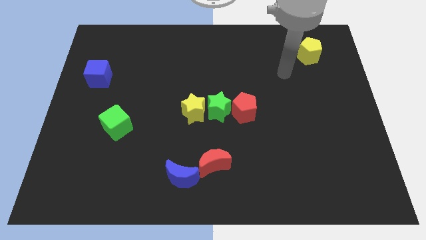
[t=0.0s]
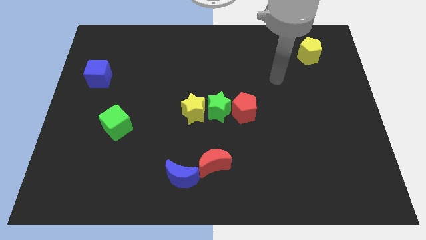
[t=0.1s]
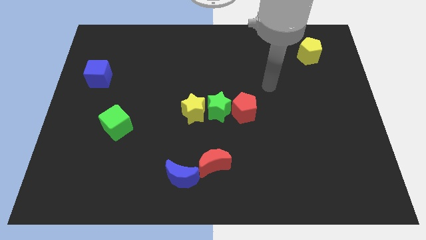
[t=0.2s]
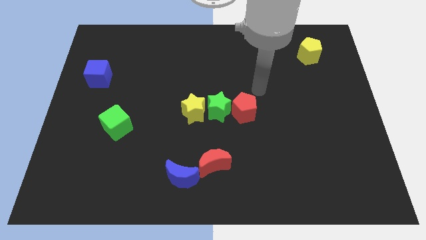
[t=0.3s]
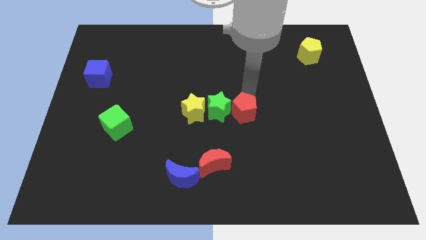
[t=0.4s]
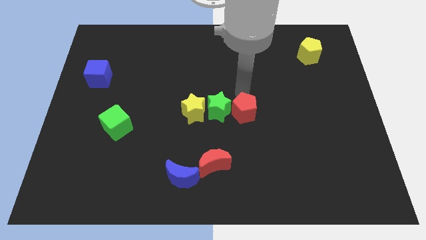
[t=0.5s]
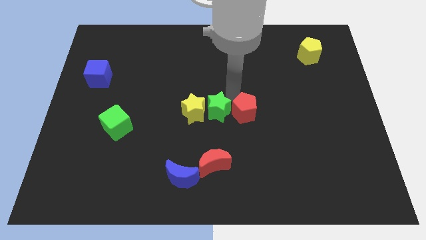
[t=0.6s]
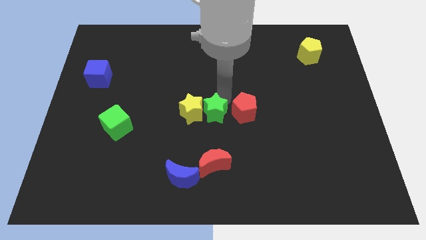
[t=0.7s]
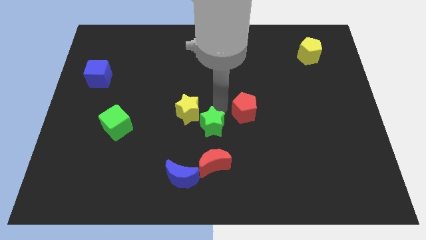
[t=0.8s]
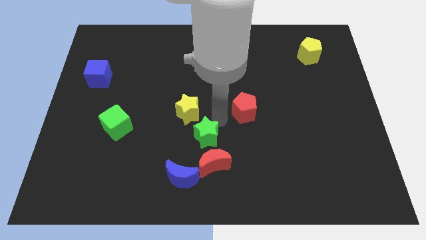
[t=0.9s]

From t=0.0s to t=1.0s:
move the red pentagon away from the green star

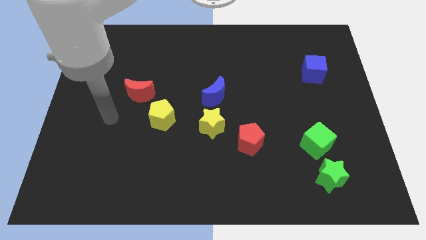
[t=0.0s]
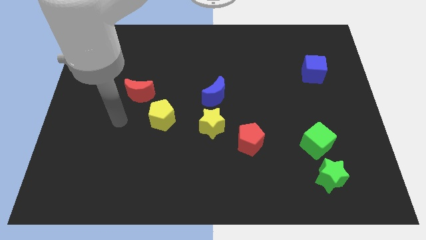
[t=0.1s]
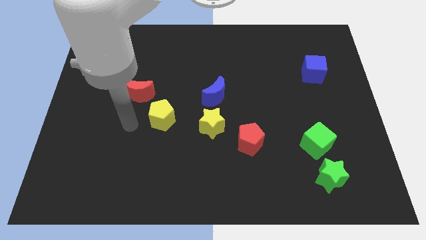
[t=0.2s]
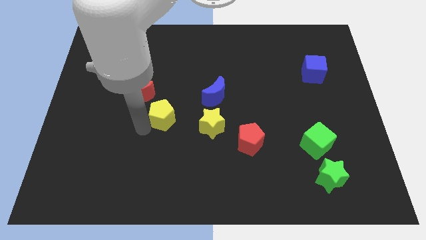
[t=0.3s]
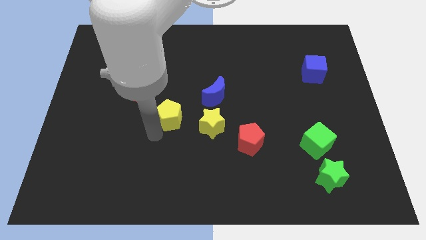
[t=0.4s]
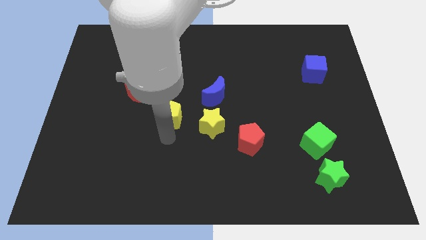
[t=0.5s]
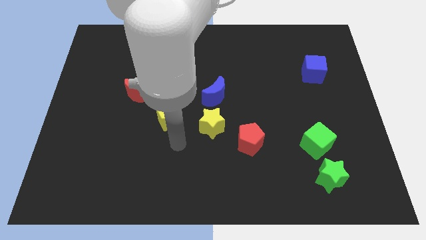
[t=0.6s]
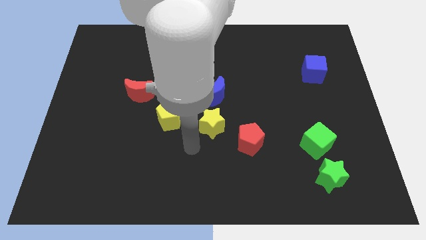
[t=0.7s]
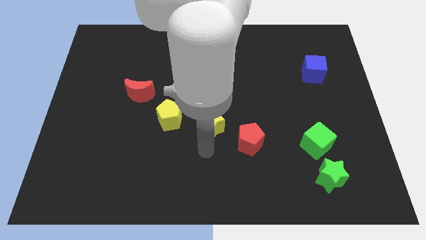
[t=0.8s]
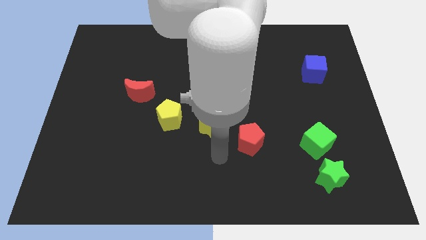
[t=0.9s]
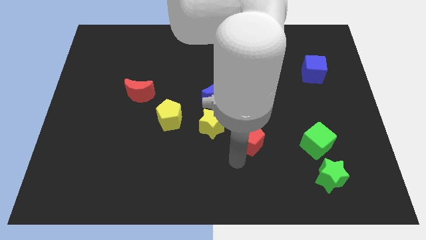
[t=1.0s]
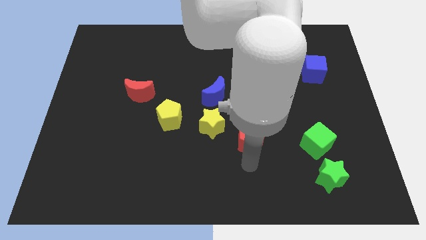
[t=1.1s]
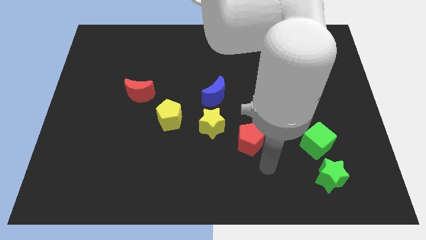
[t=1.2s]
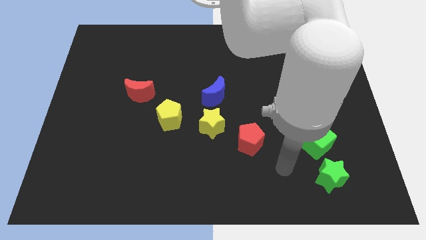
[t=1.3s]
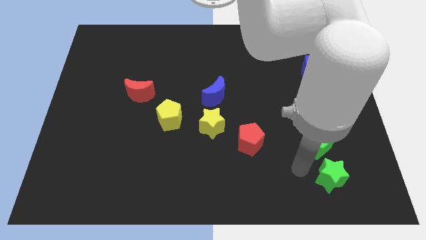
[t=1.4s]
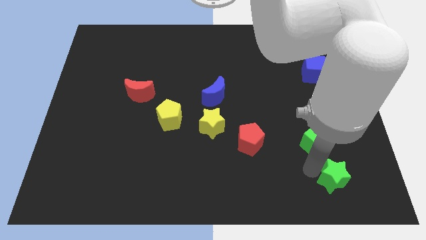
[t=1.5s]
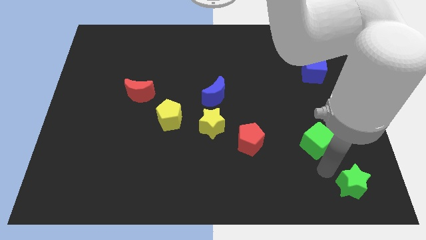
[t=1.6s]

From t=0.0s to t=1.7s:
pull the green cube apart from the green star

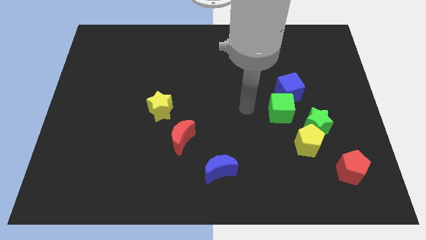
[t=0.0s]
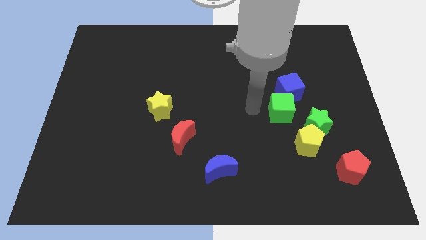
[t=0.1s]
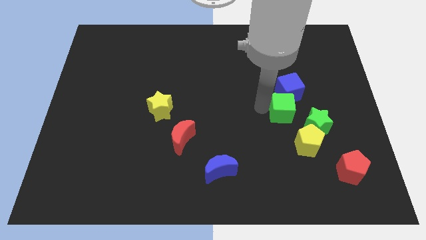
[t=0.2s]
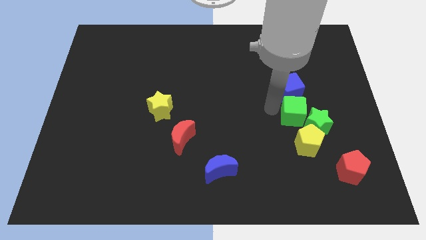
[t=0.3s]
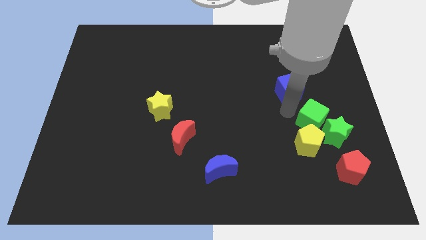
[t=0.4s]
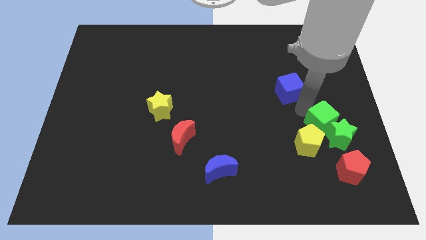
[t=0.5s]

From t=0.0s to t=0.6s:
pull the blue cube apart from the green cube

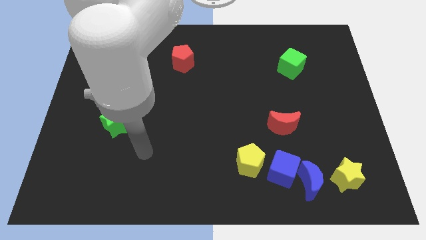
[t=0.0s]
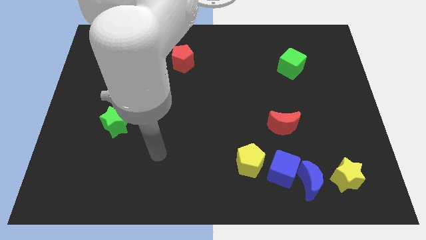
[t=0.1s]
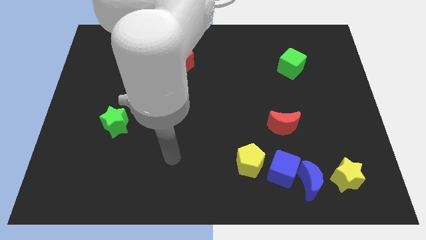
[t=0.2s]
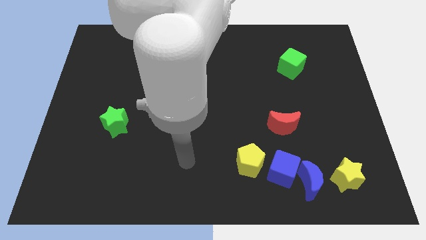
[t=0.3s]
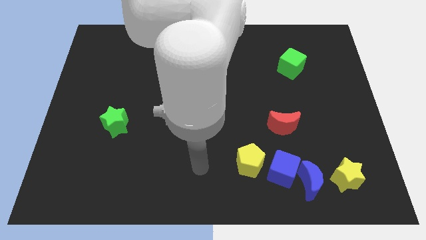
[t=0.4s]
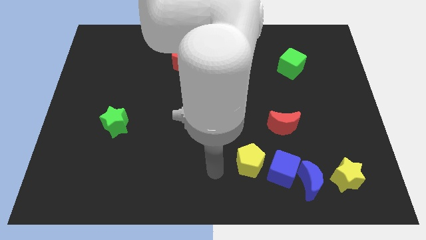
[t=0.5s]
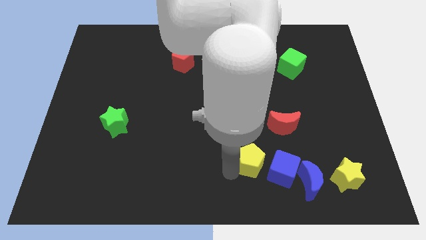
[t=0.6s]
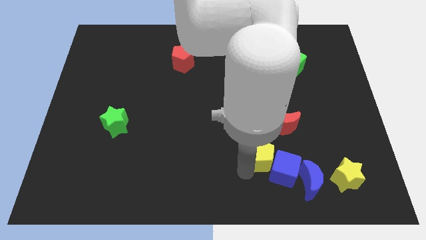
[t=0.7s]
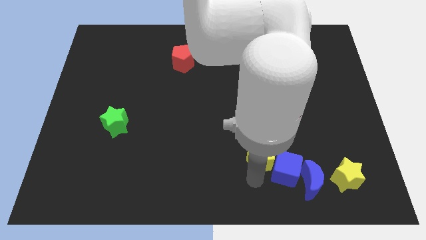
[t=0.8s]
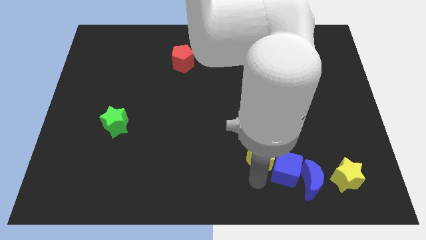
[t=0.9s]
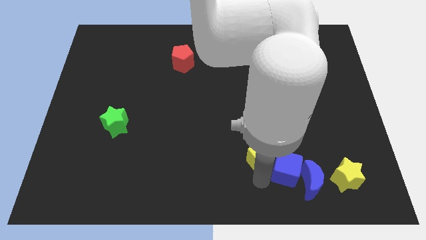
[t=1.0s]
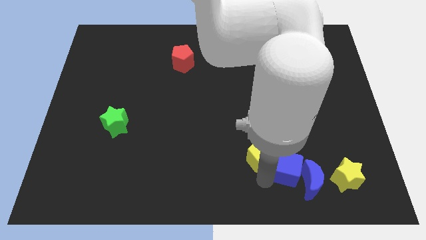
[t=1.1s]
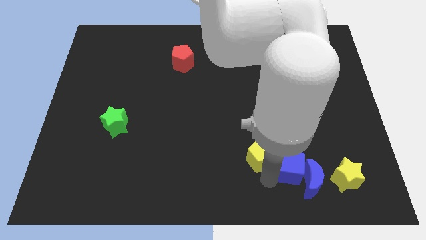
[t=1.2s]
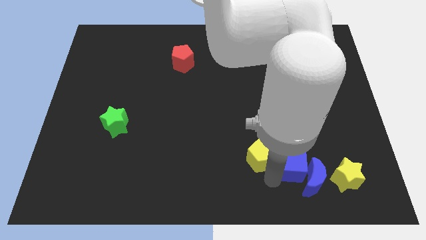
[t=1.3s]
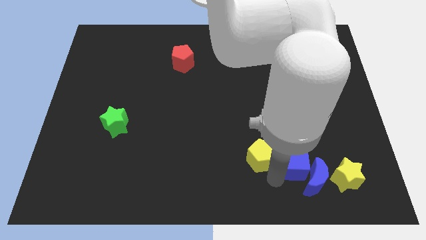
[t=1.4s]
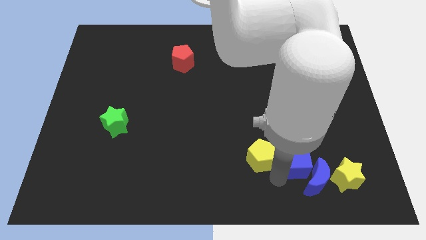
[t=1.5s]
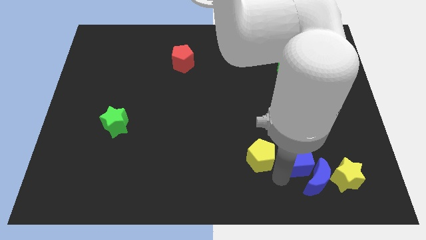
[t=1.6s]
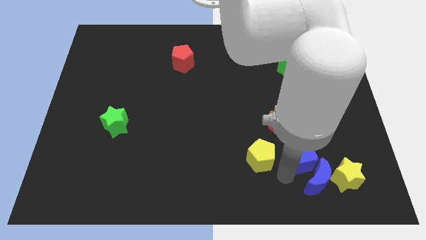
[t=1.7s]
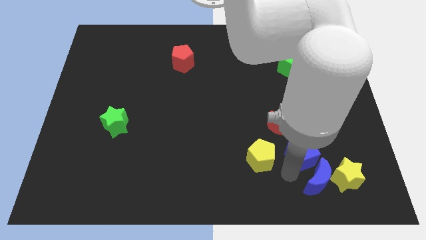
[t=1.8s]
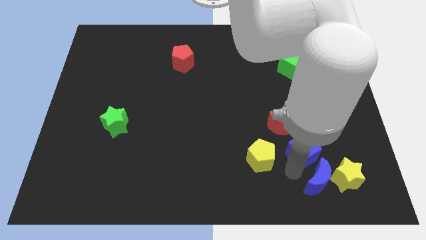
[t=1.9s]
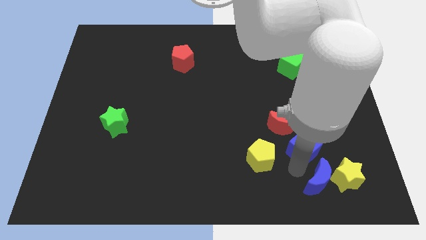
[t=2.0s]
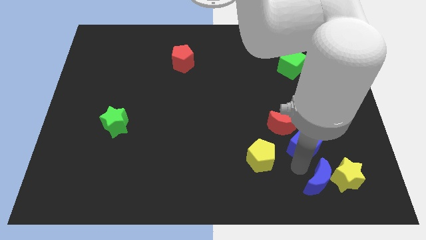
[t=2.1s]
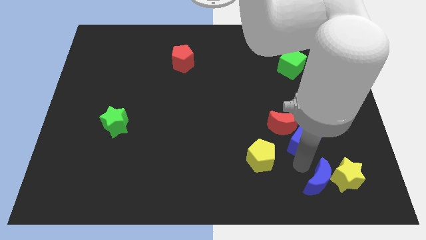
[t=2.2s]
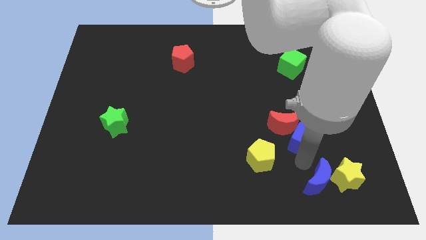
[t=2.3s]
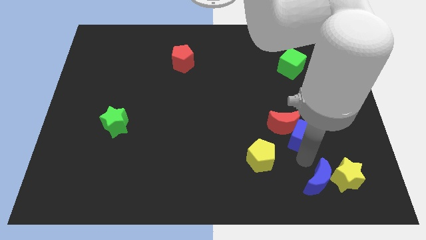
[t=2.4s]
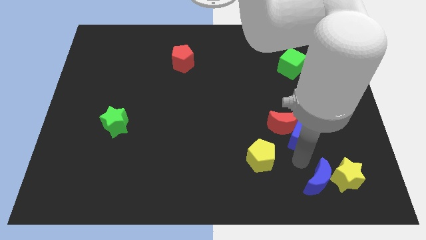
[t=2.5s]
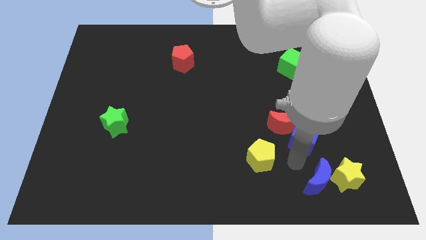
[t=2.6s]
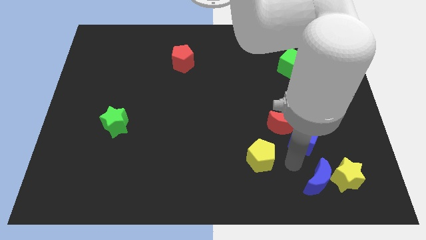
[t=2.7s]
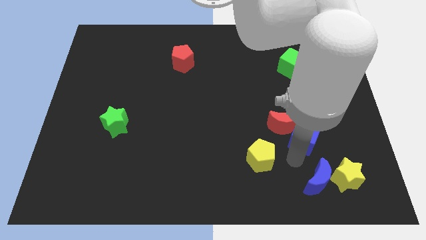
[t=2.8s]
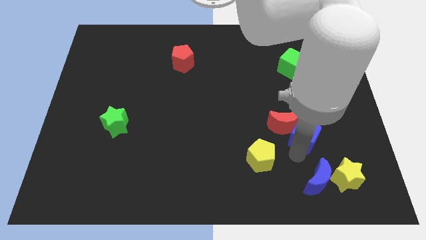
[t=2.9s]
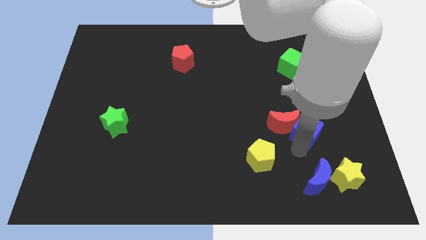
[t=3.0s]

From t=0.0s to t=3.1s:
pull the blue cube apart from the blue moon and yellow pentagon

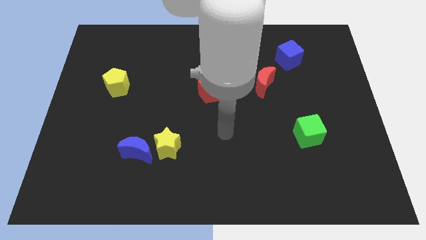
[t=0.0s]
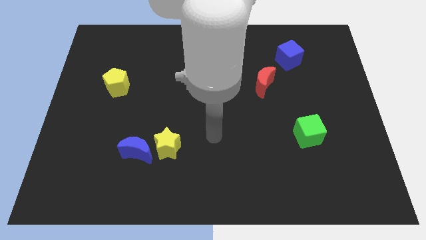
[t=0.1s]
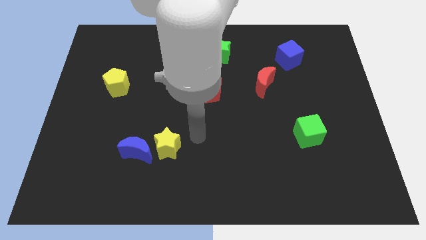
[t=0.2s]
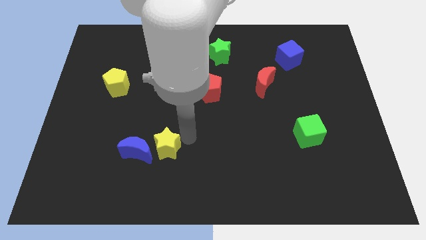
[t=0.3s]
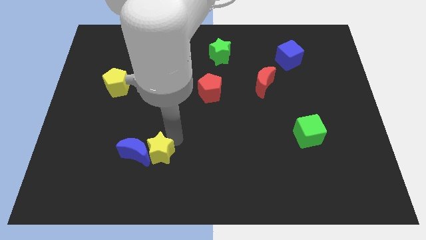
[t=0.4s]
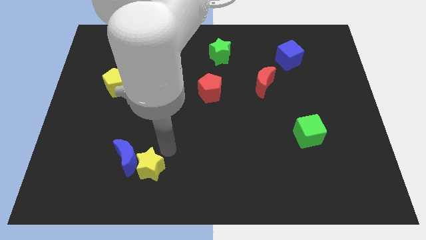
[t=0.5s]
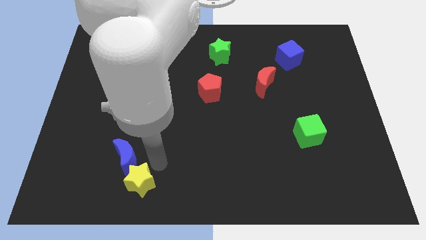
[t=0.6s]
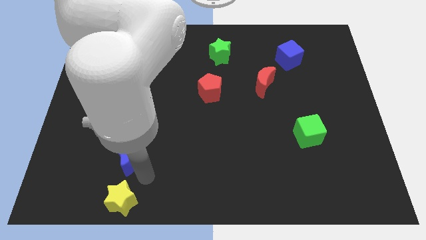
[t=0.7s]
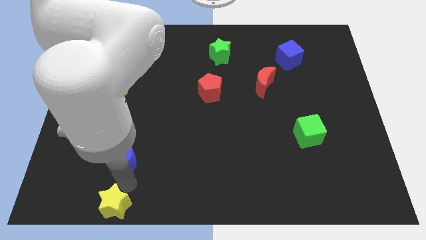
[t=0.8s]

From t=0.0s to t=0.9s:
move the blue moon away from the yellow star

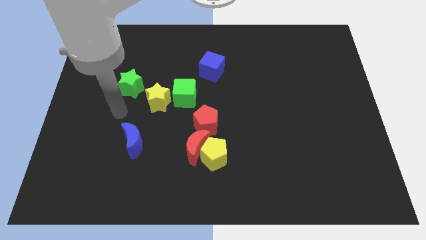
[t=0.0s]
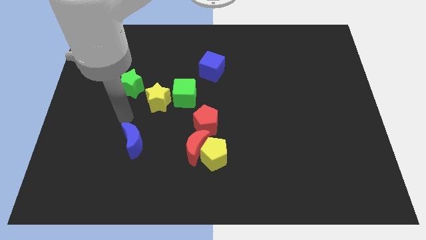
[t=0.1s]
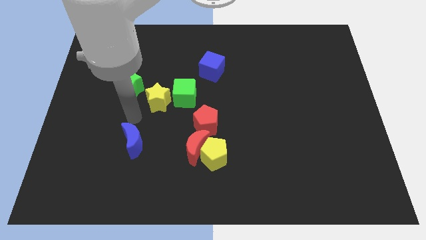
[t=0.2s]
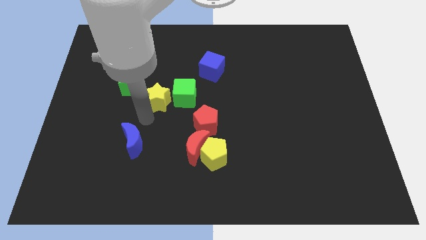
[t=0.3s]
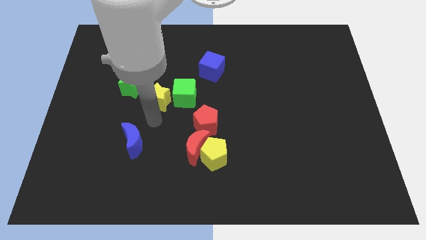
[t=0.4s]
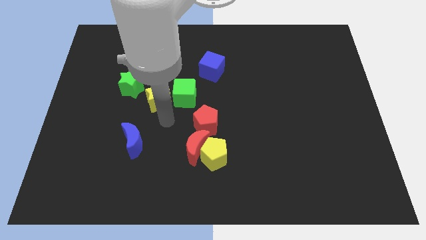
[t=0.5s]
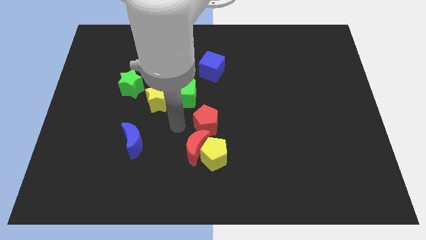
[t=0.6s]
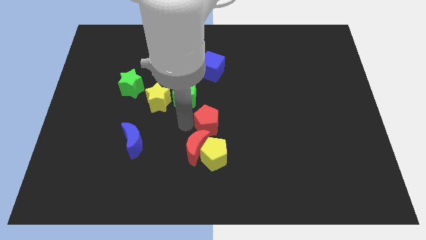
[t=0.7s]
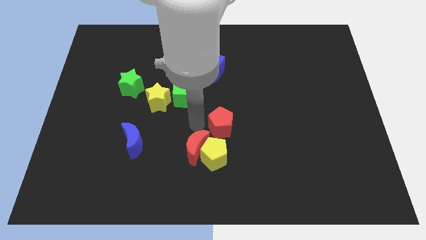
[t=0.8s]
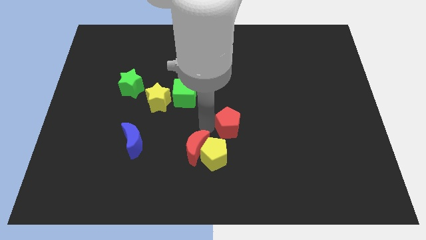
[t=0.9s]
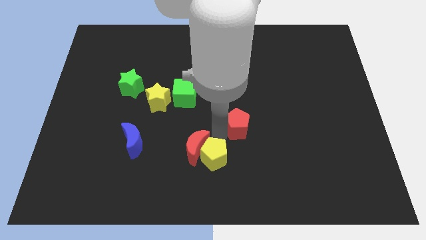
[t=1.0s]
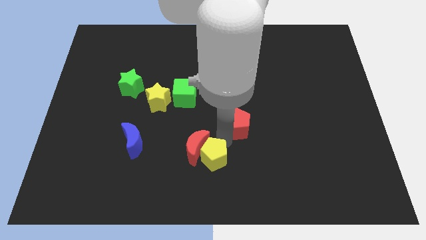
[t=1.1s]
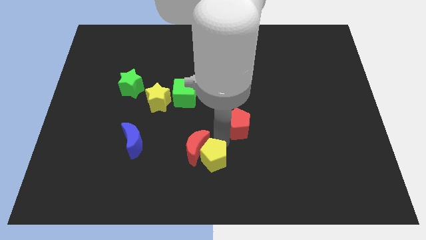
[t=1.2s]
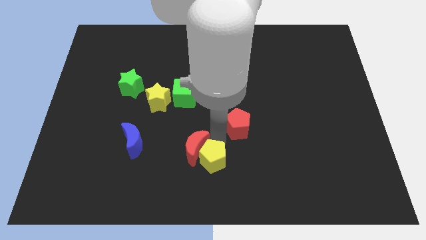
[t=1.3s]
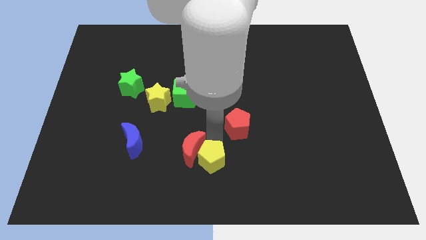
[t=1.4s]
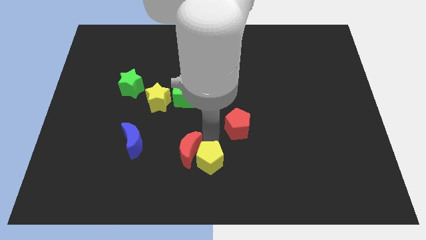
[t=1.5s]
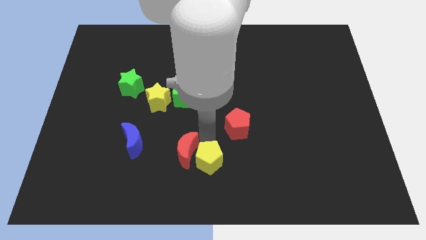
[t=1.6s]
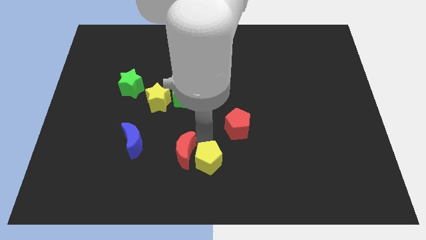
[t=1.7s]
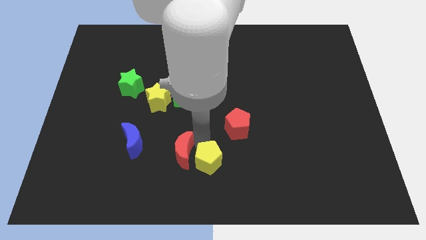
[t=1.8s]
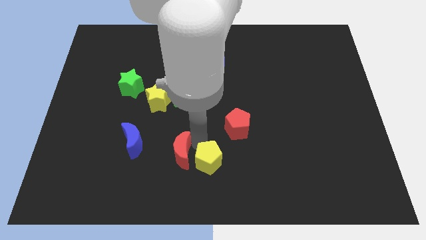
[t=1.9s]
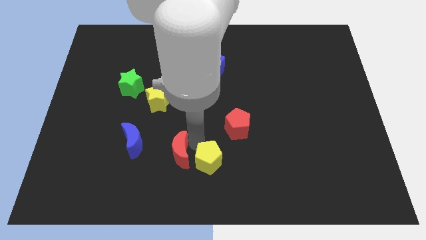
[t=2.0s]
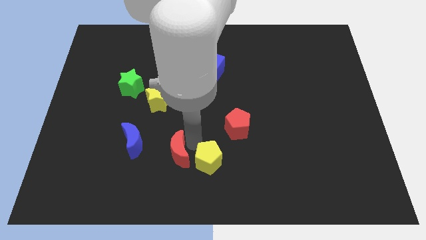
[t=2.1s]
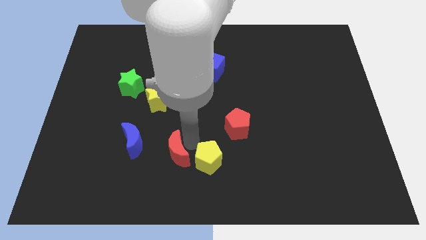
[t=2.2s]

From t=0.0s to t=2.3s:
pull the red moon apart from the yellow pentagon and red pentagon
